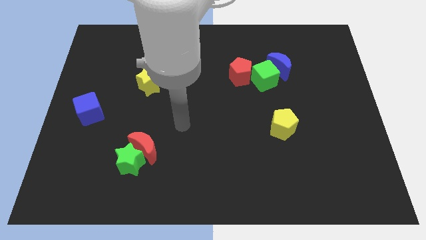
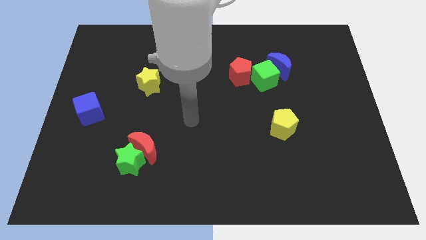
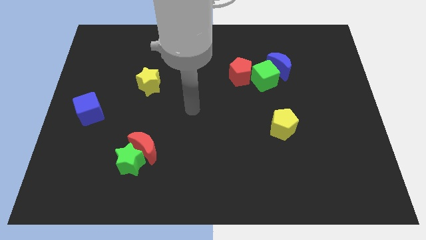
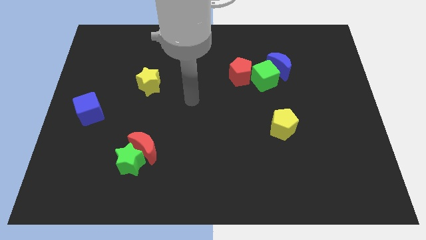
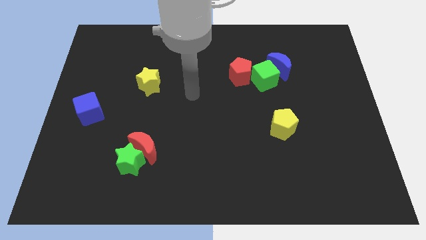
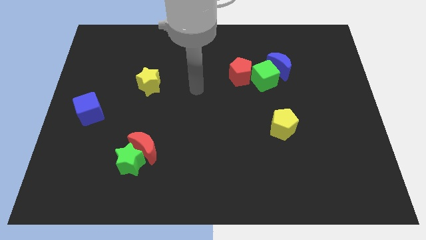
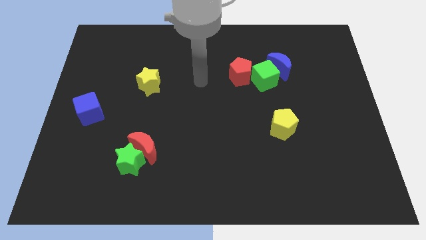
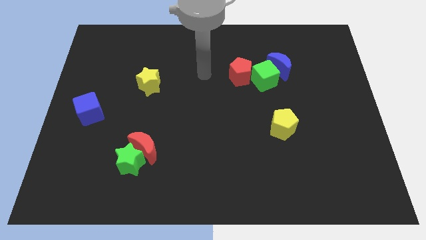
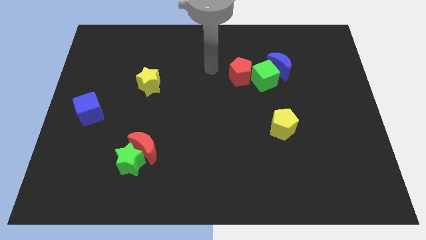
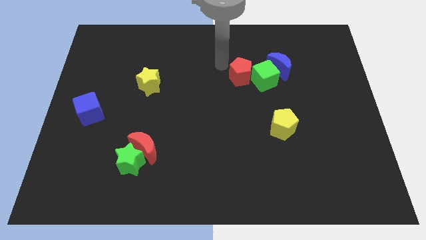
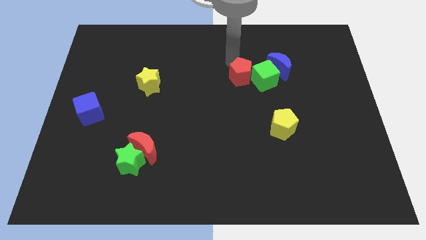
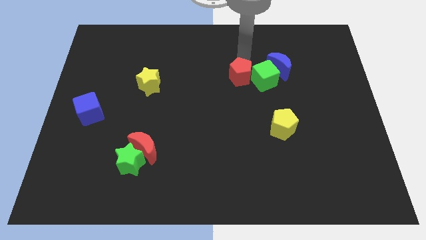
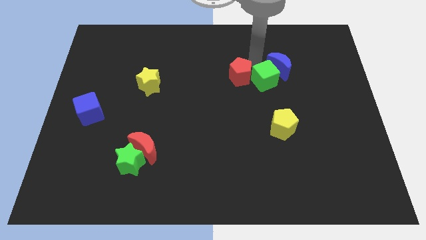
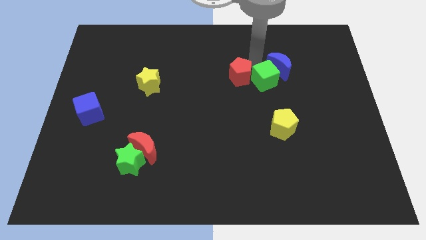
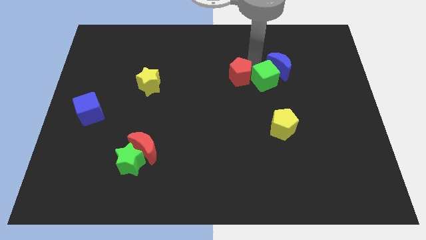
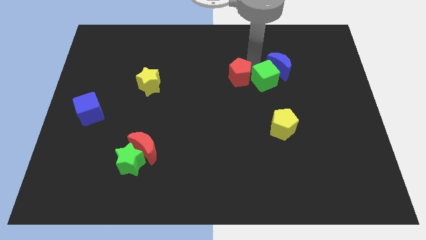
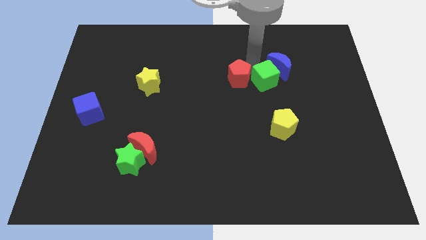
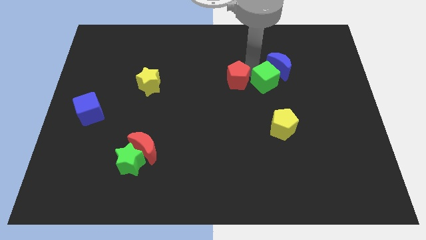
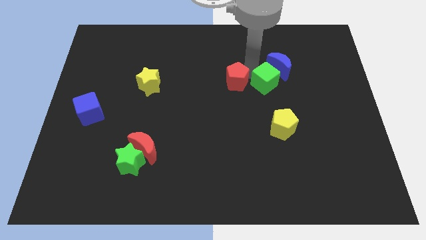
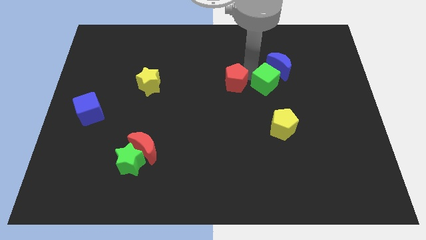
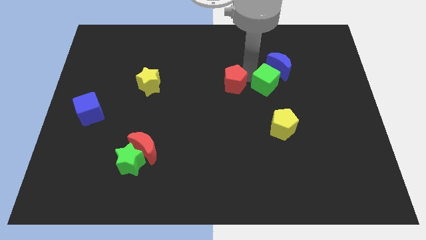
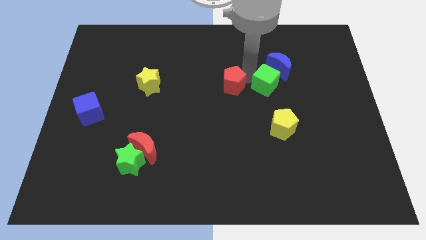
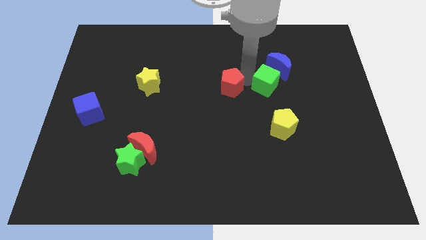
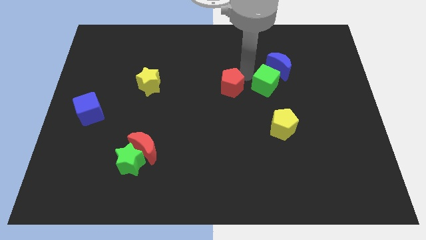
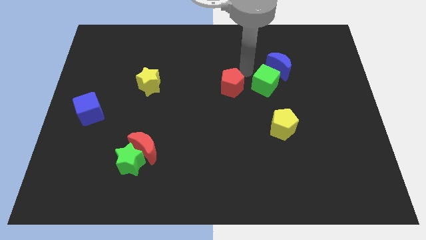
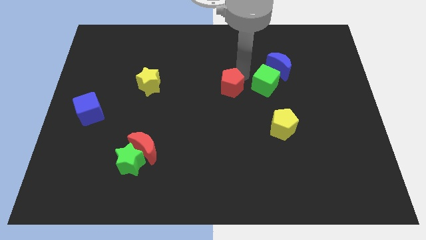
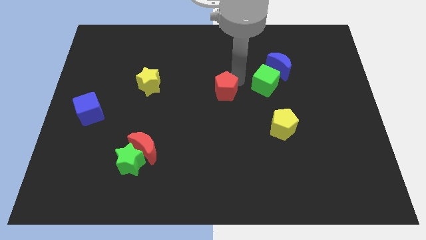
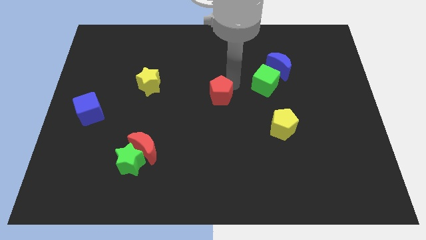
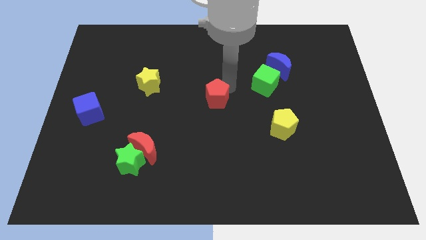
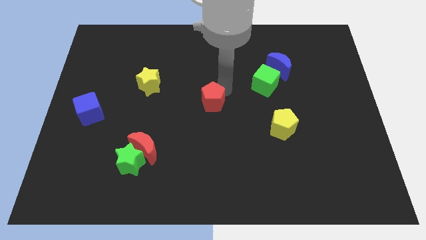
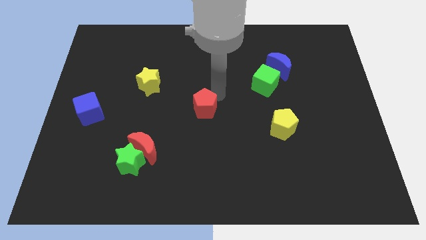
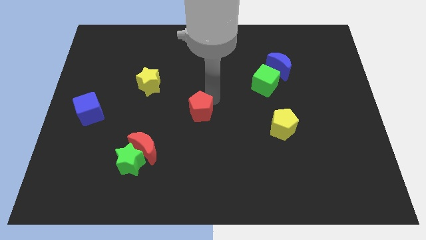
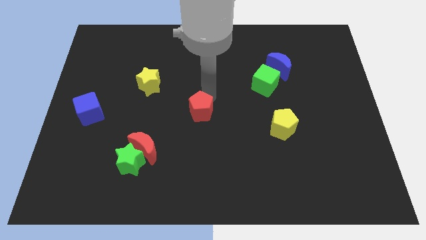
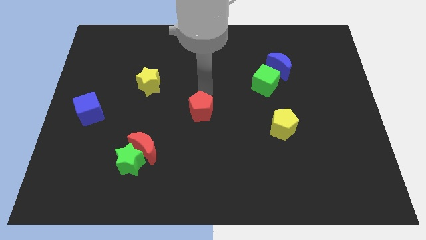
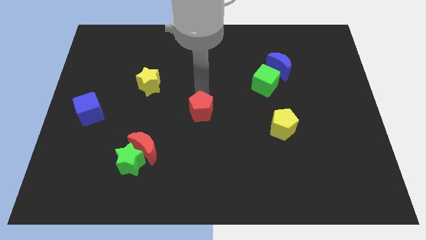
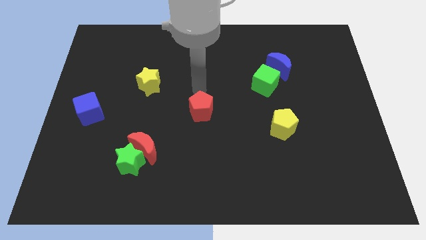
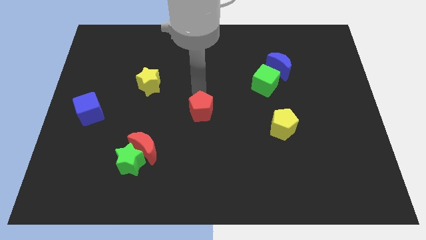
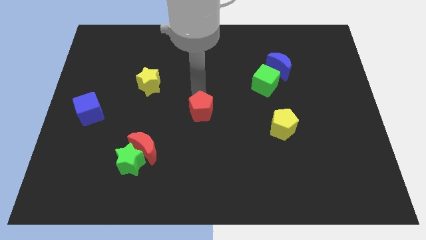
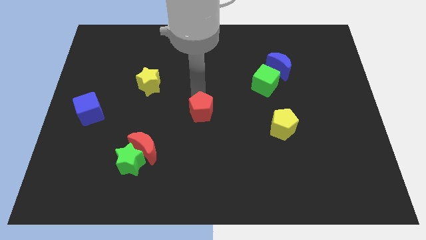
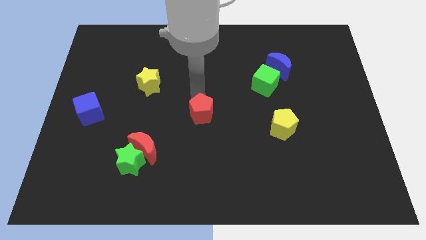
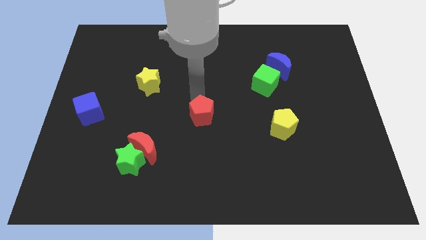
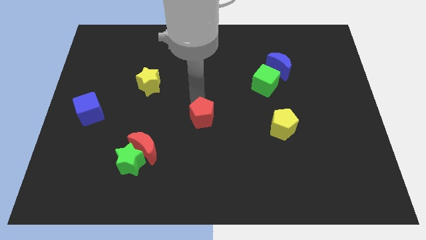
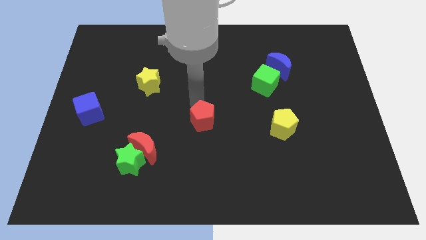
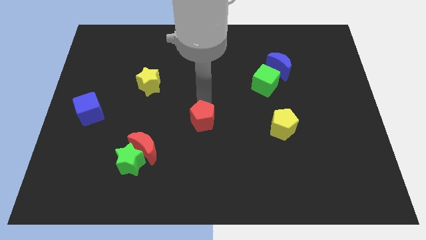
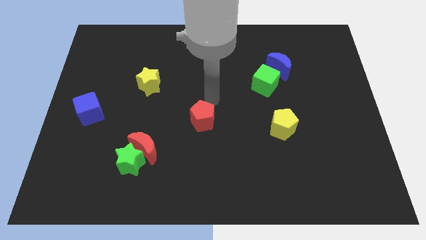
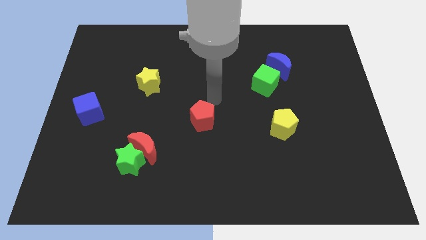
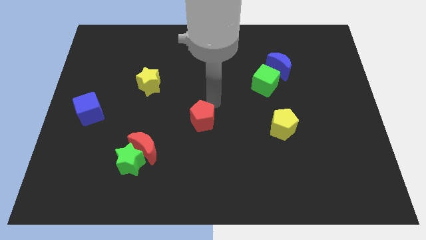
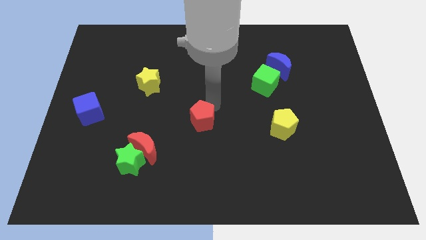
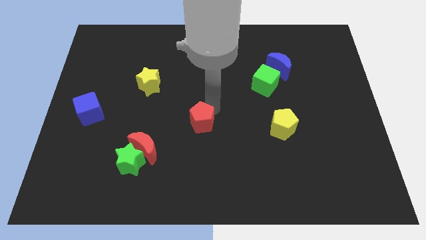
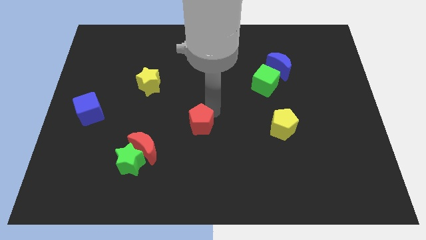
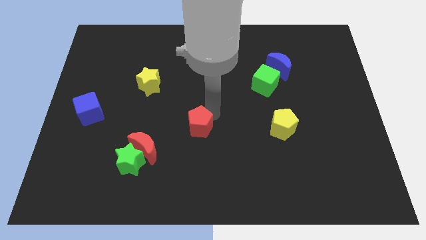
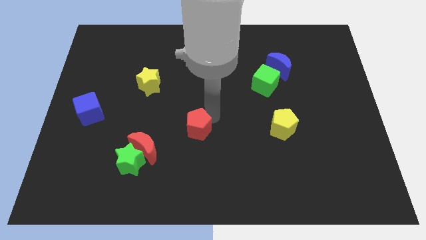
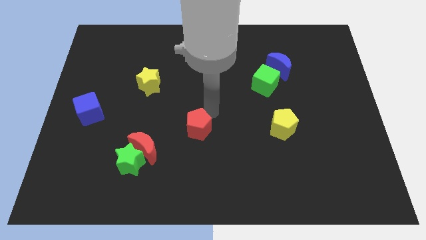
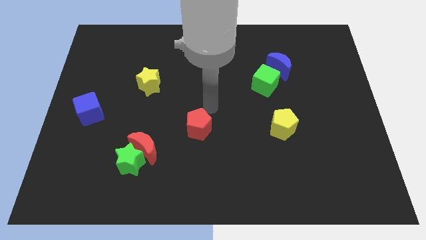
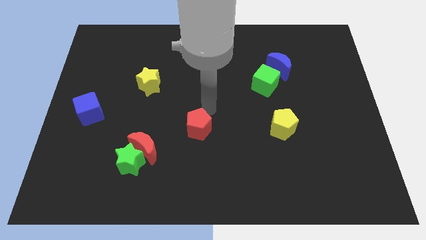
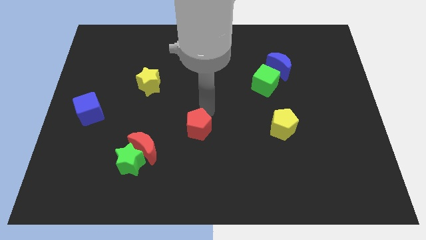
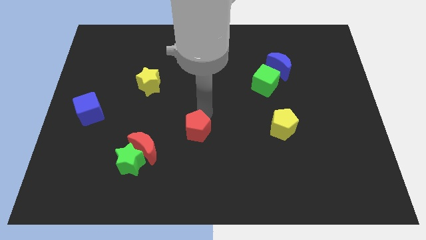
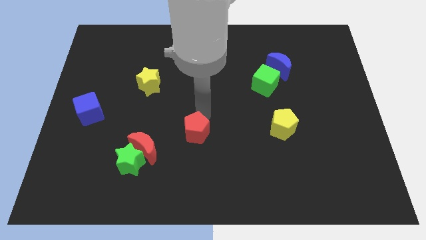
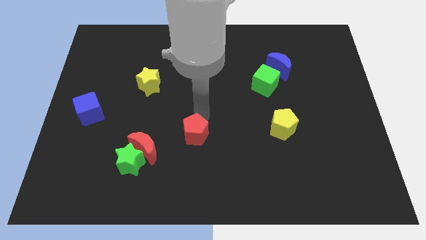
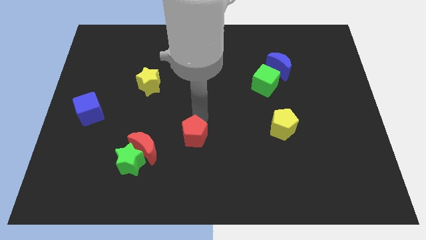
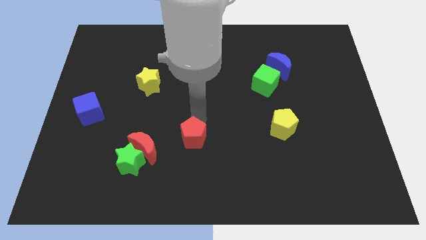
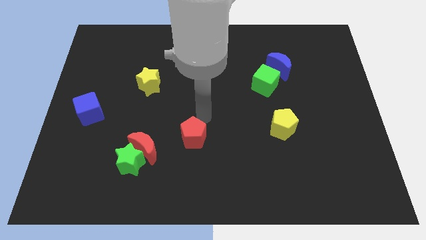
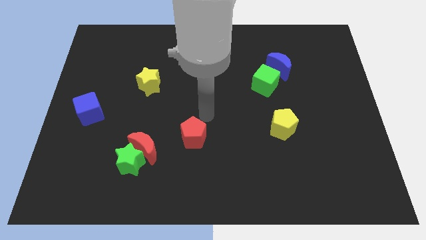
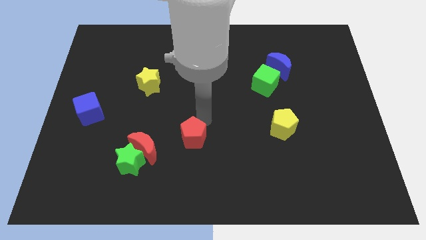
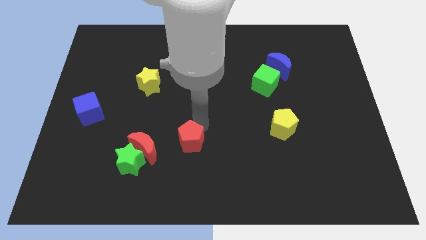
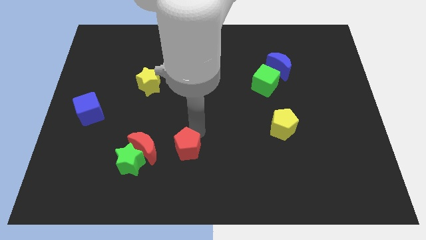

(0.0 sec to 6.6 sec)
push the red pentagon just right of the green star

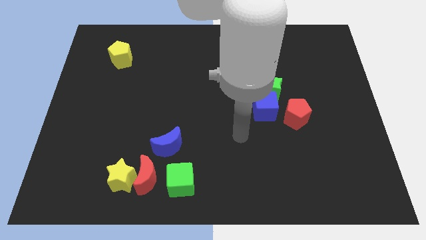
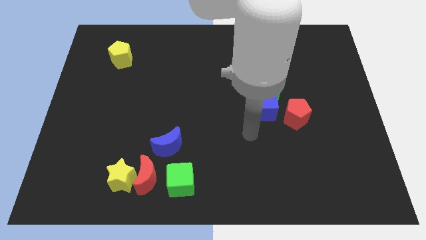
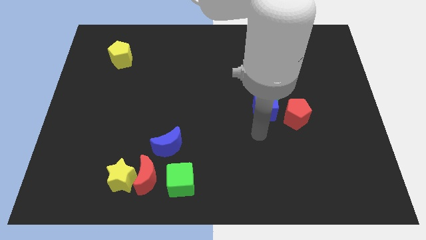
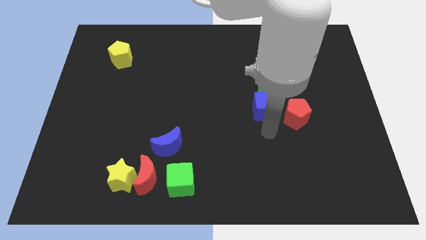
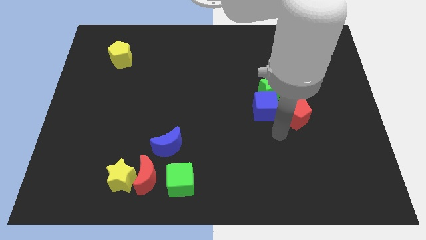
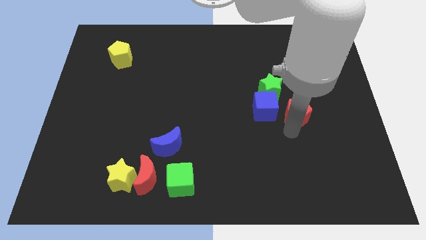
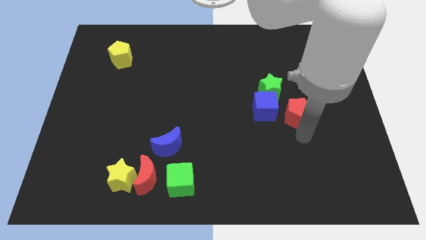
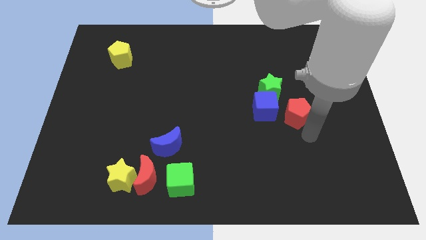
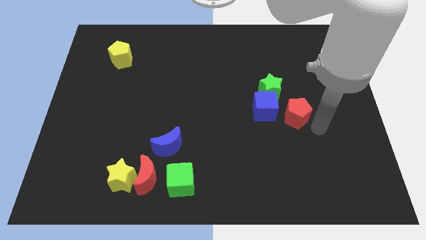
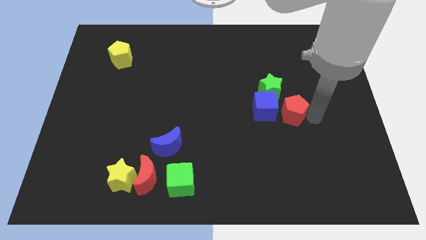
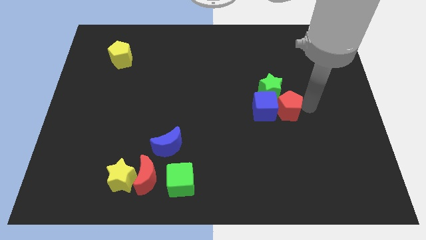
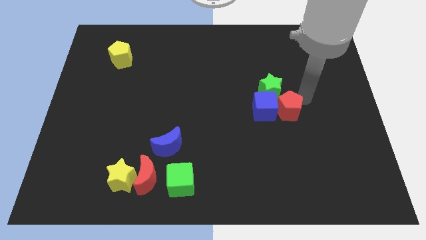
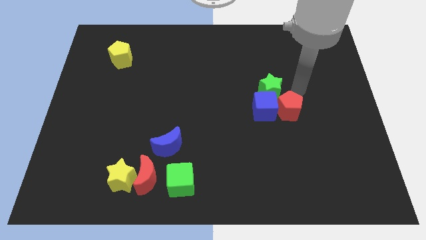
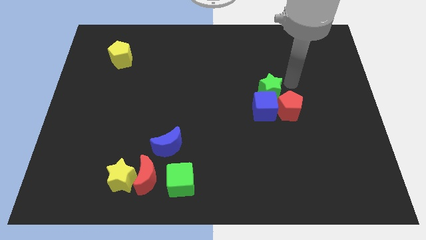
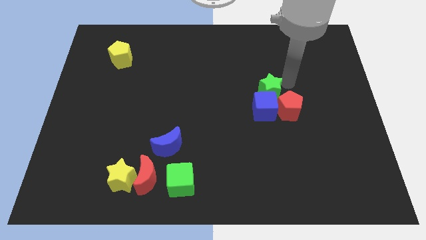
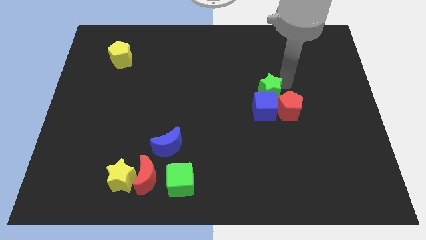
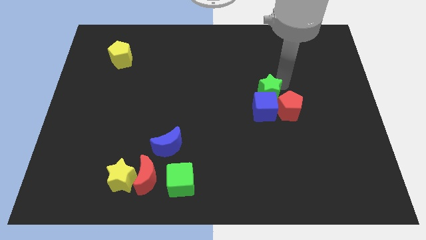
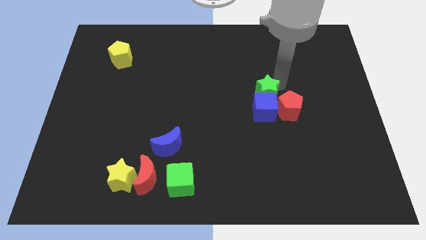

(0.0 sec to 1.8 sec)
slide the green star left of the red pentagon
